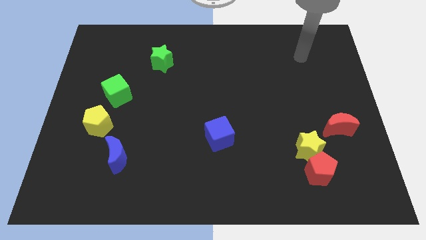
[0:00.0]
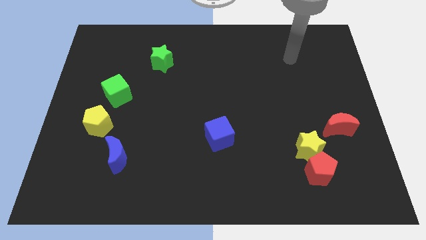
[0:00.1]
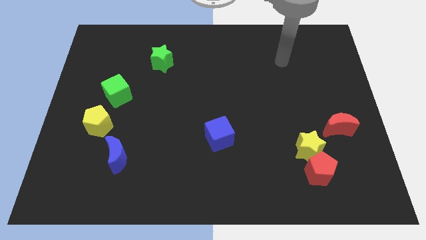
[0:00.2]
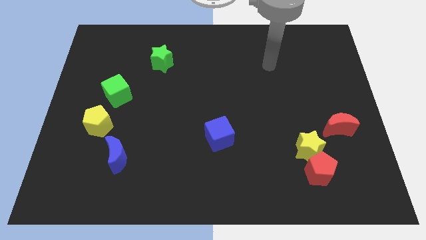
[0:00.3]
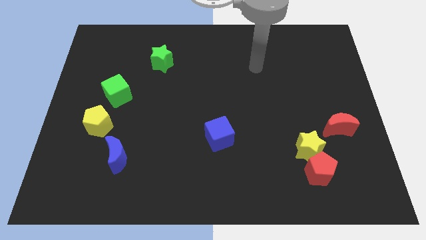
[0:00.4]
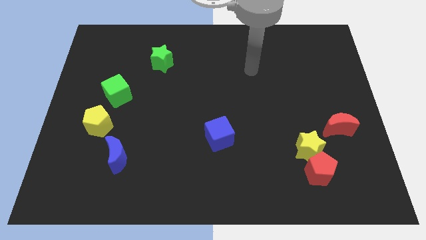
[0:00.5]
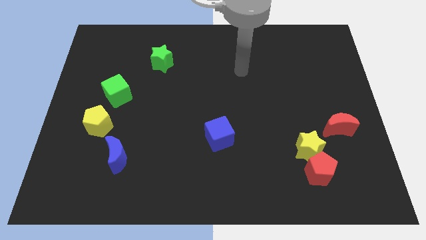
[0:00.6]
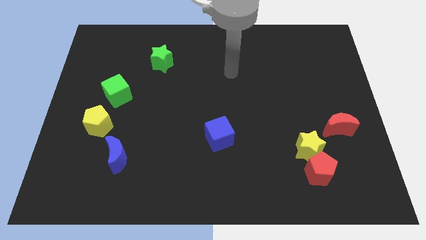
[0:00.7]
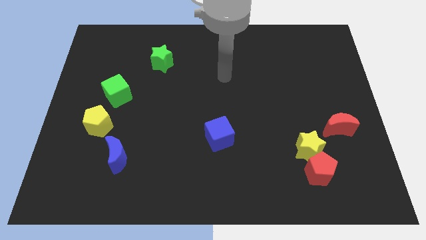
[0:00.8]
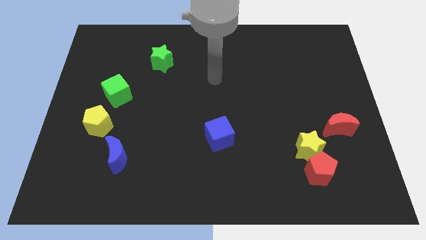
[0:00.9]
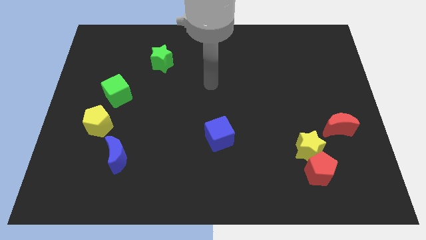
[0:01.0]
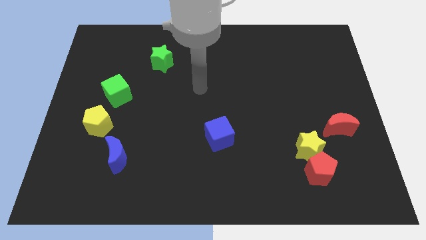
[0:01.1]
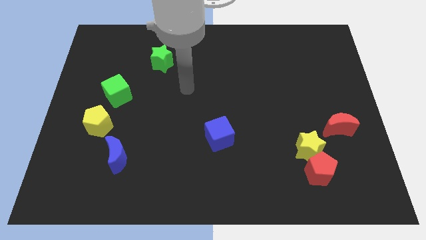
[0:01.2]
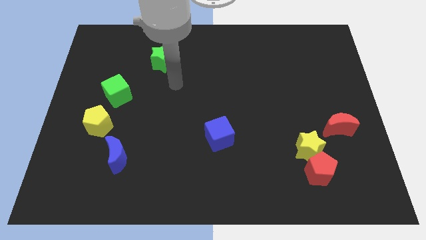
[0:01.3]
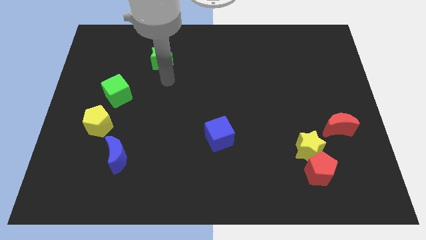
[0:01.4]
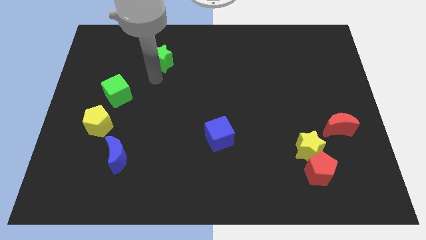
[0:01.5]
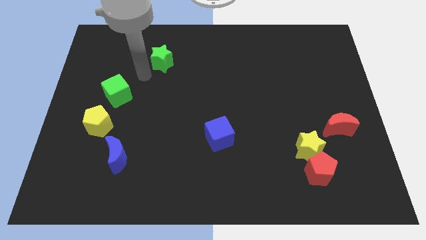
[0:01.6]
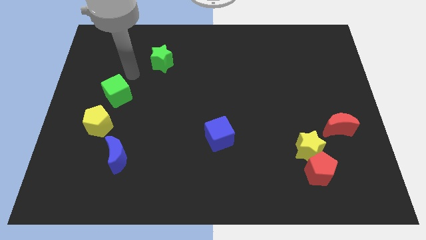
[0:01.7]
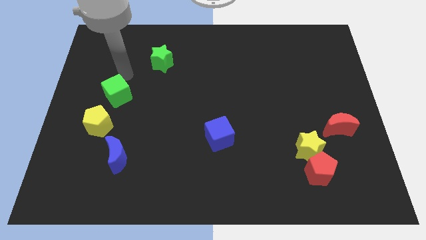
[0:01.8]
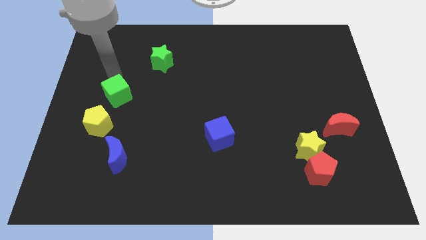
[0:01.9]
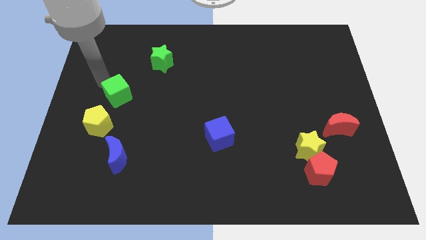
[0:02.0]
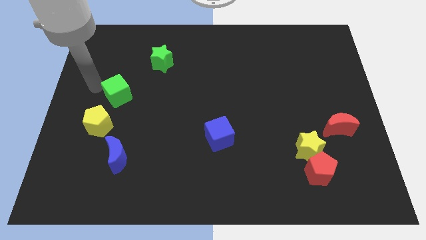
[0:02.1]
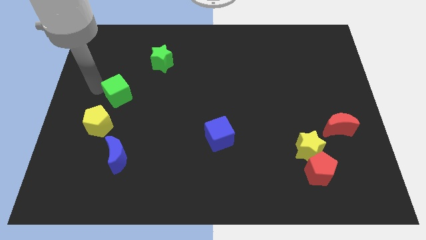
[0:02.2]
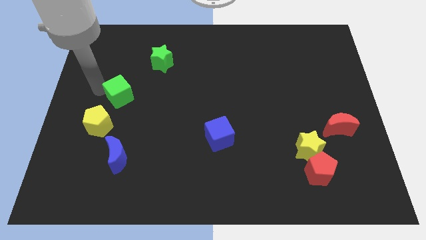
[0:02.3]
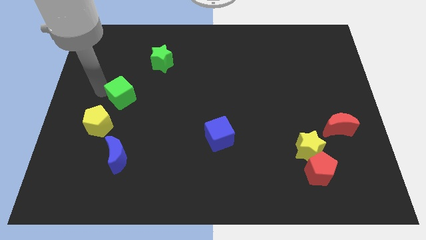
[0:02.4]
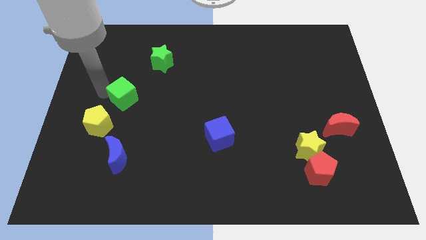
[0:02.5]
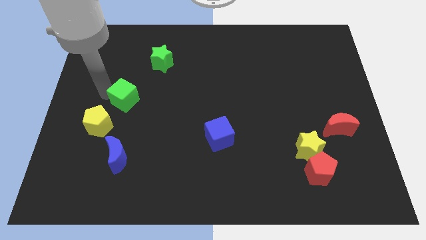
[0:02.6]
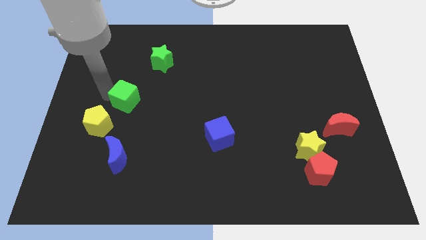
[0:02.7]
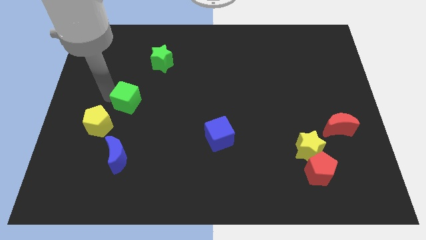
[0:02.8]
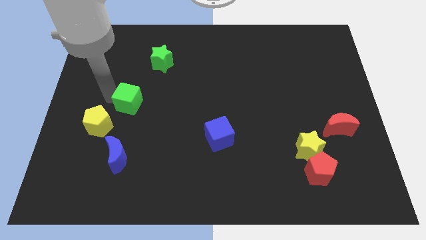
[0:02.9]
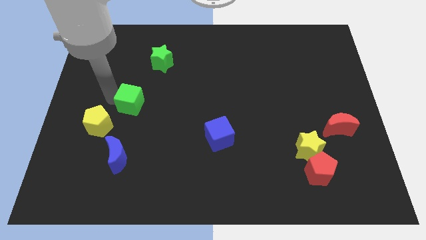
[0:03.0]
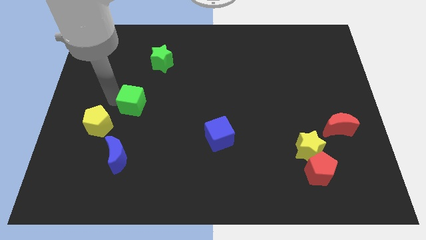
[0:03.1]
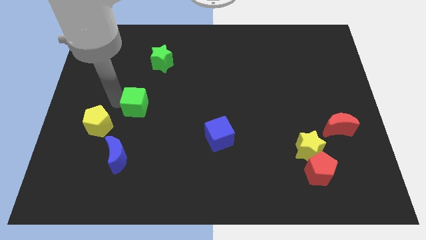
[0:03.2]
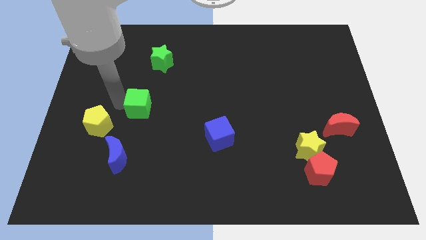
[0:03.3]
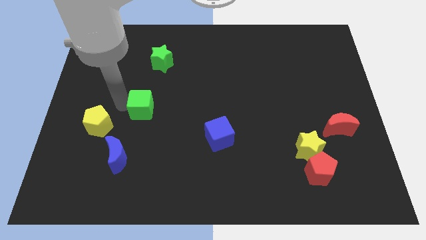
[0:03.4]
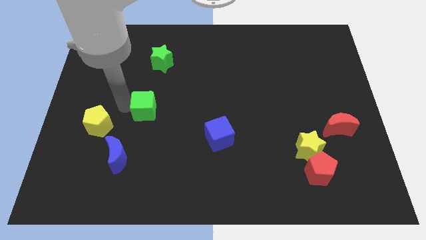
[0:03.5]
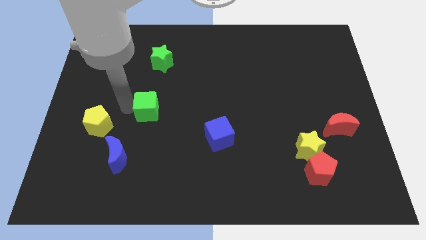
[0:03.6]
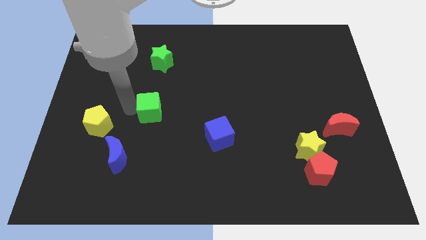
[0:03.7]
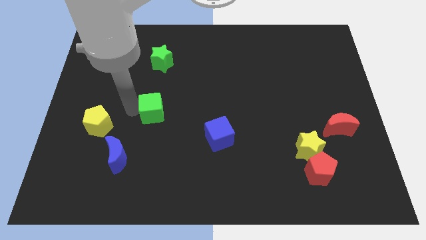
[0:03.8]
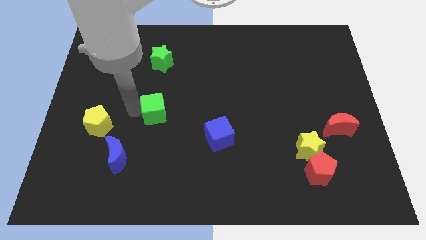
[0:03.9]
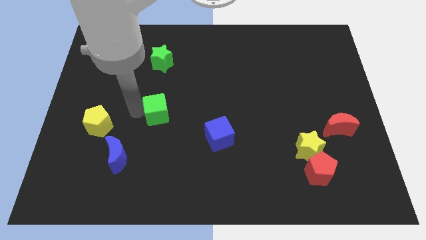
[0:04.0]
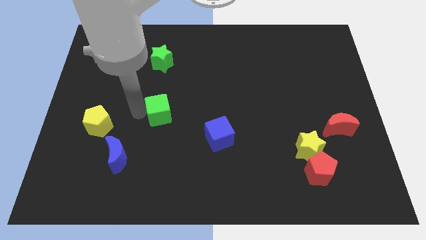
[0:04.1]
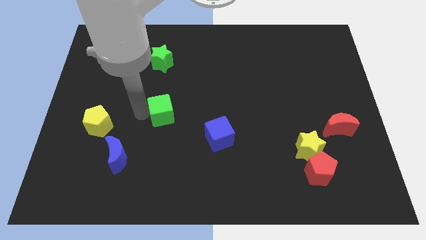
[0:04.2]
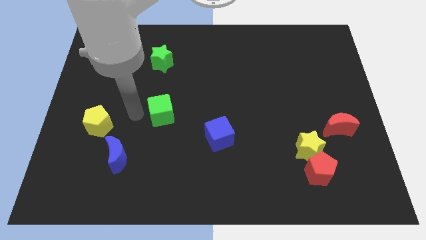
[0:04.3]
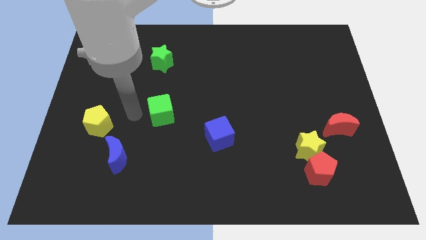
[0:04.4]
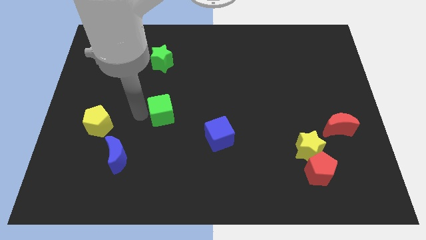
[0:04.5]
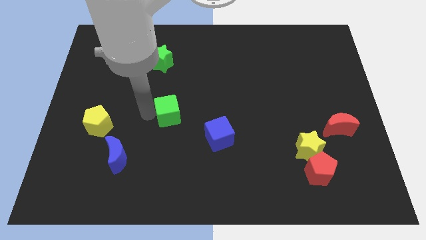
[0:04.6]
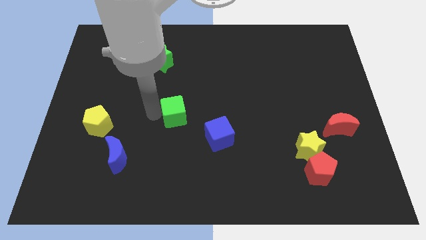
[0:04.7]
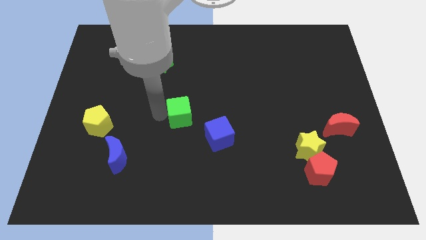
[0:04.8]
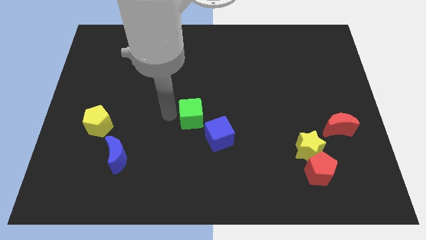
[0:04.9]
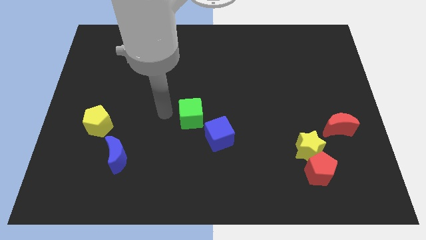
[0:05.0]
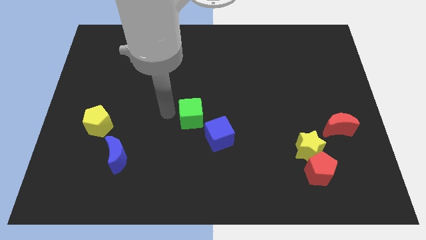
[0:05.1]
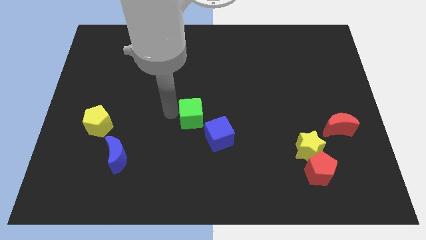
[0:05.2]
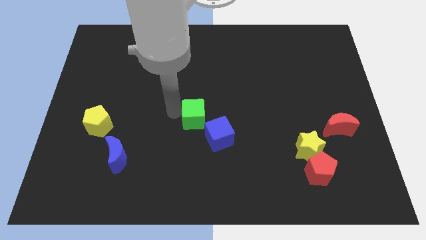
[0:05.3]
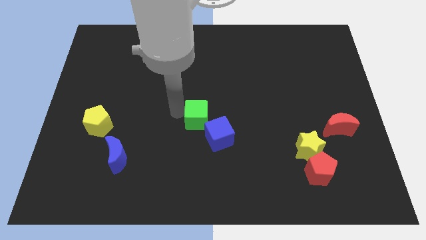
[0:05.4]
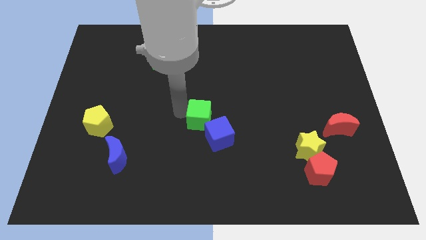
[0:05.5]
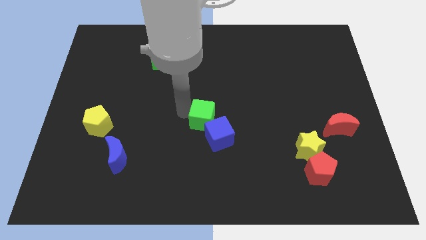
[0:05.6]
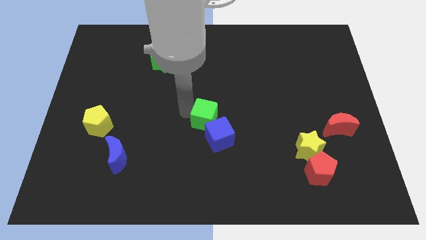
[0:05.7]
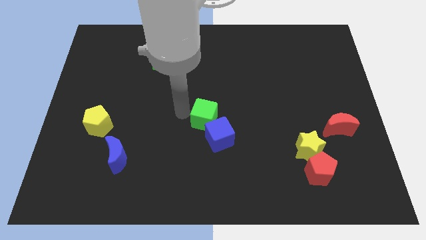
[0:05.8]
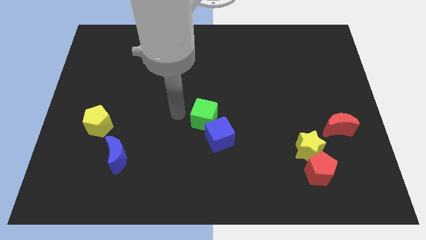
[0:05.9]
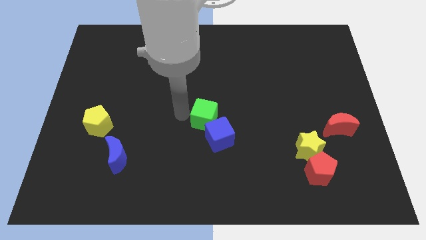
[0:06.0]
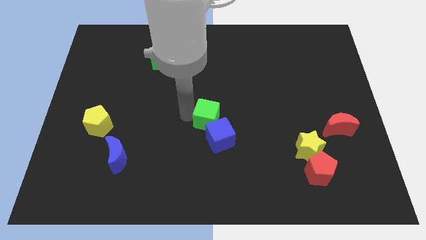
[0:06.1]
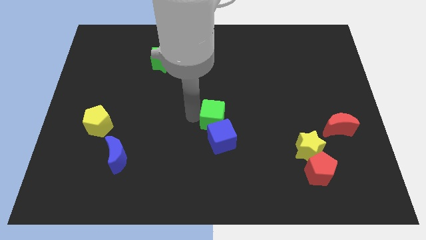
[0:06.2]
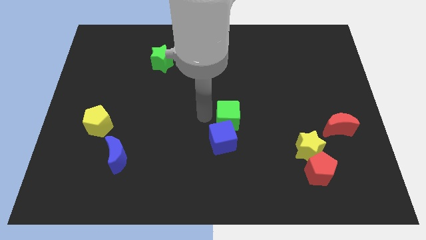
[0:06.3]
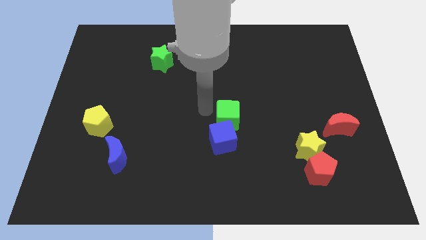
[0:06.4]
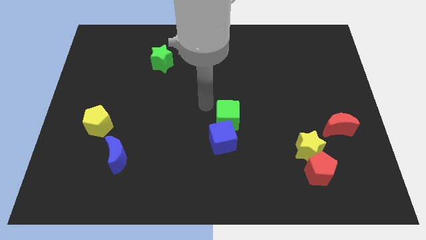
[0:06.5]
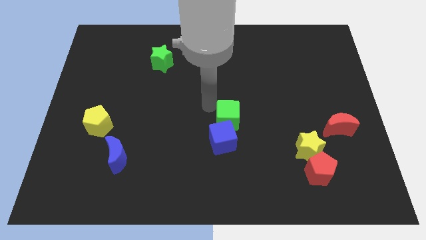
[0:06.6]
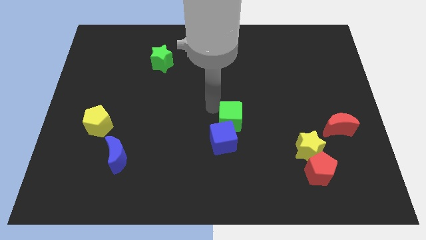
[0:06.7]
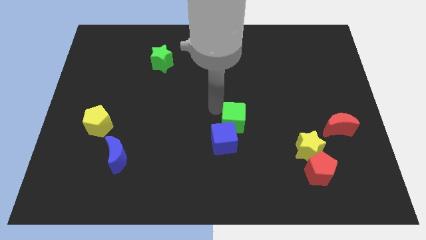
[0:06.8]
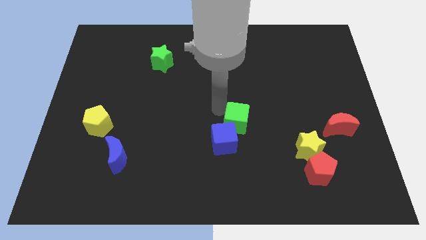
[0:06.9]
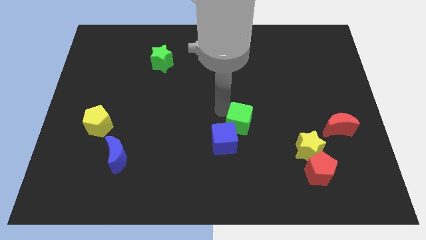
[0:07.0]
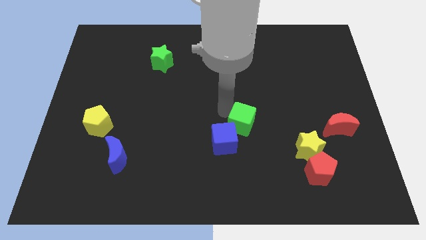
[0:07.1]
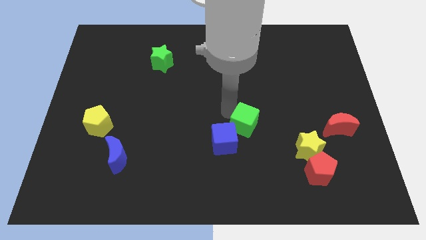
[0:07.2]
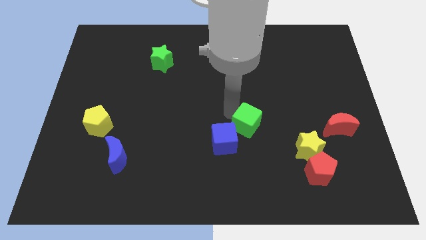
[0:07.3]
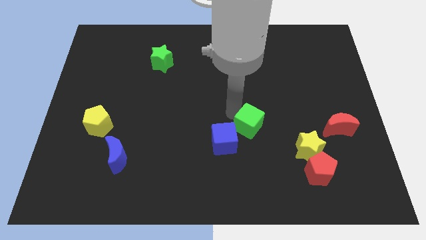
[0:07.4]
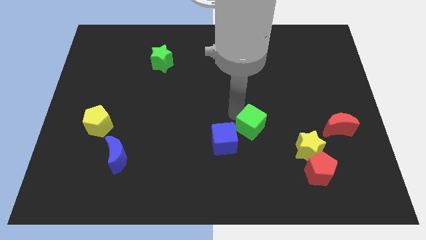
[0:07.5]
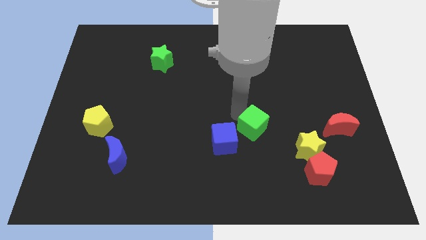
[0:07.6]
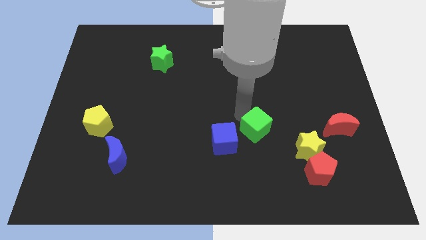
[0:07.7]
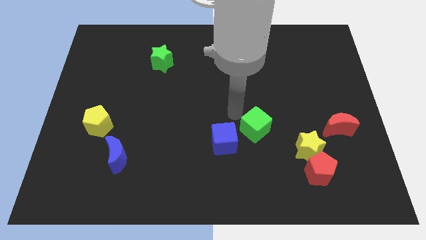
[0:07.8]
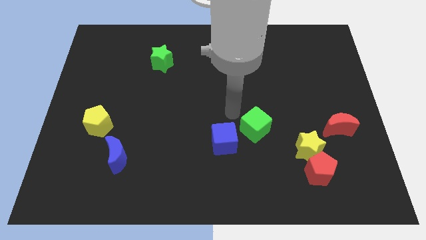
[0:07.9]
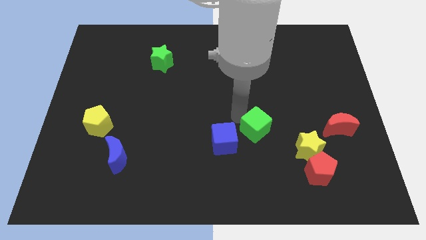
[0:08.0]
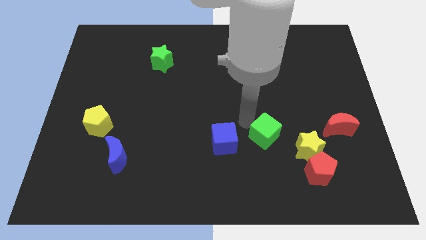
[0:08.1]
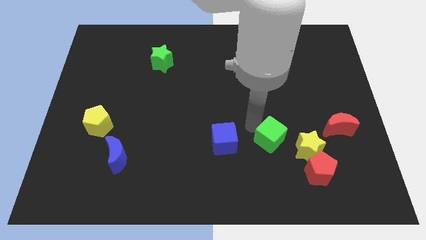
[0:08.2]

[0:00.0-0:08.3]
move the green cube diagonally up and to the left of the red pentagon
